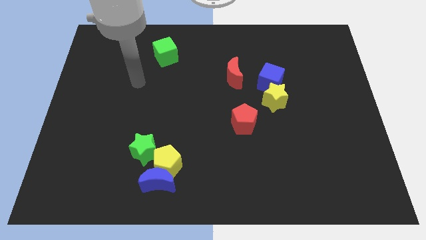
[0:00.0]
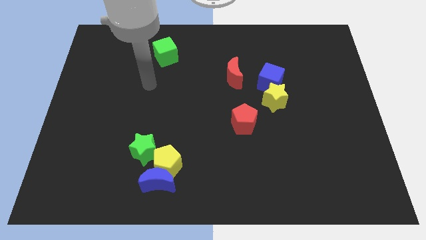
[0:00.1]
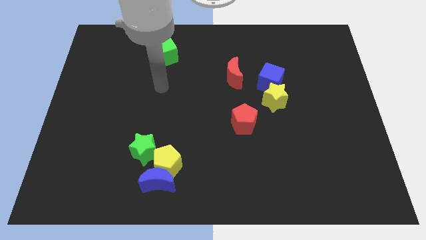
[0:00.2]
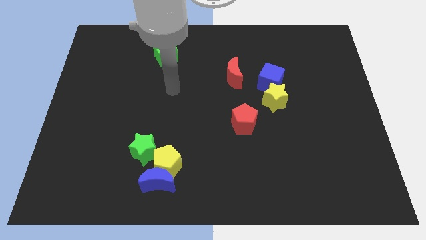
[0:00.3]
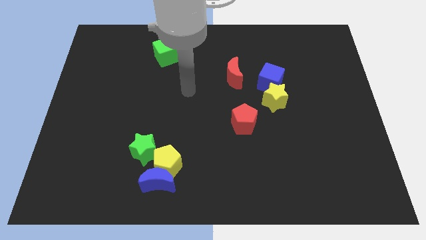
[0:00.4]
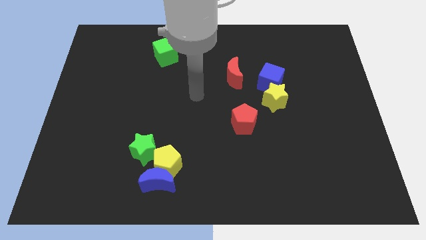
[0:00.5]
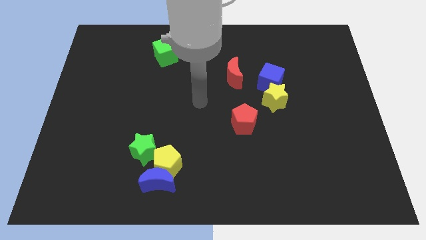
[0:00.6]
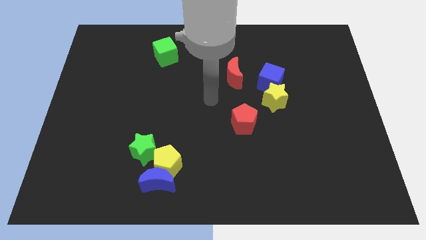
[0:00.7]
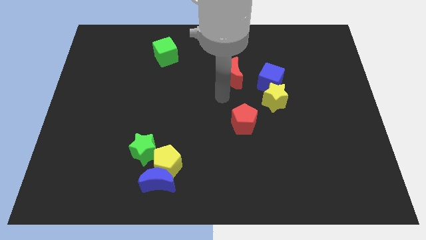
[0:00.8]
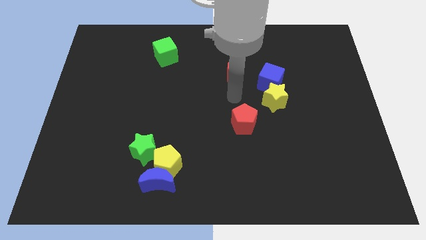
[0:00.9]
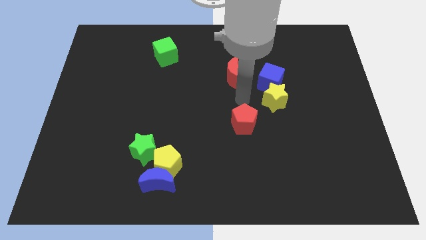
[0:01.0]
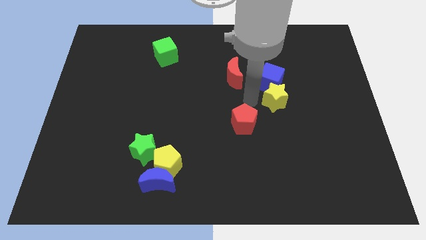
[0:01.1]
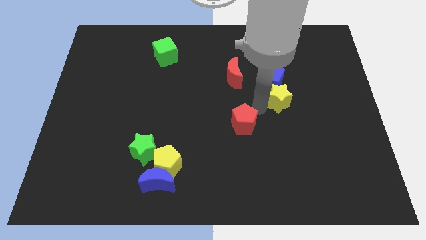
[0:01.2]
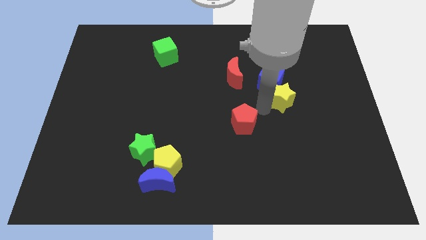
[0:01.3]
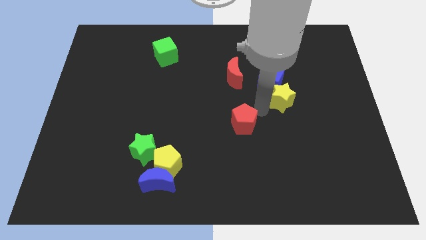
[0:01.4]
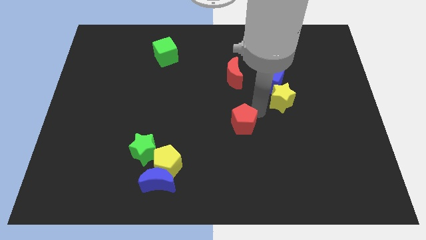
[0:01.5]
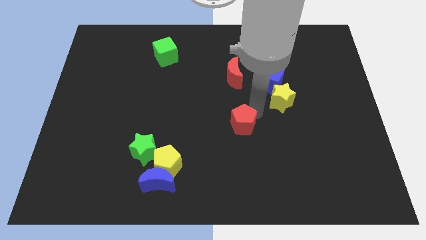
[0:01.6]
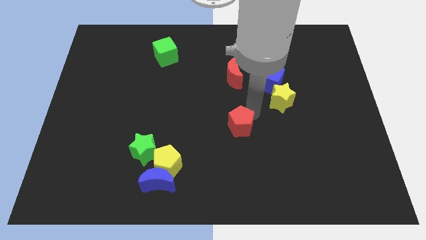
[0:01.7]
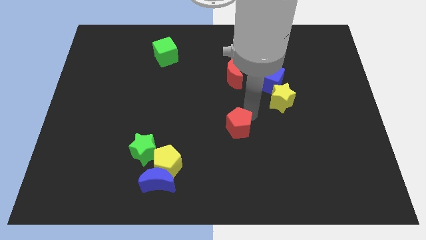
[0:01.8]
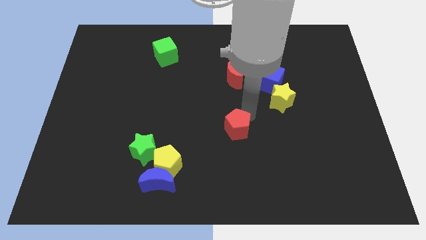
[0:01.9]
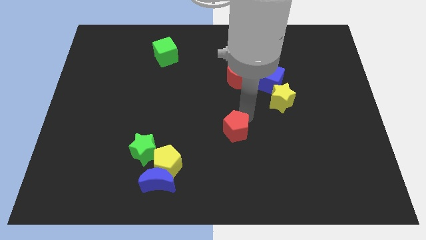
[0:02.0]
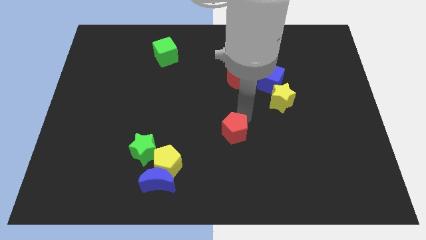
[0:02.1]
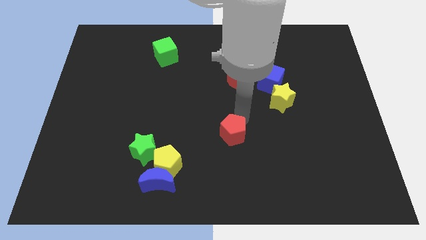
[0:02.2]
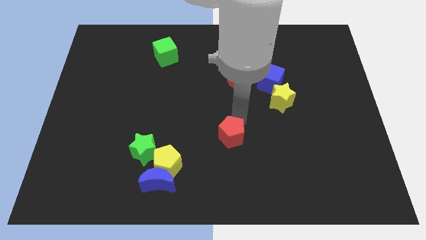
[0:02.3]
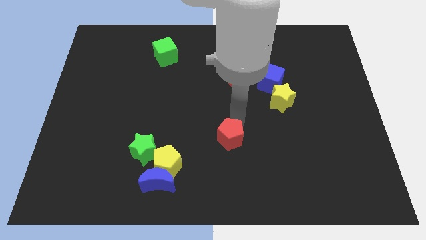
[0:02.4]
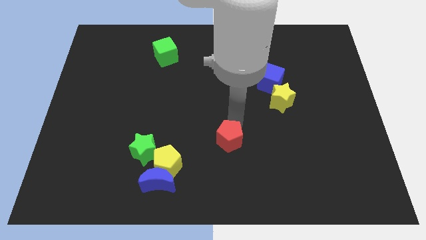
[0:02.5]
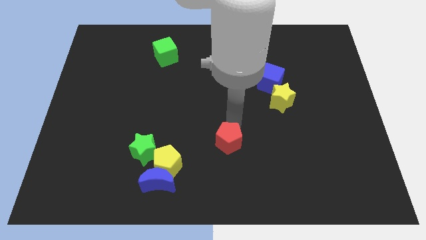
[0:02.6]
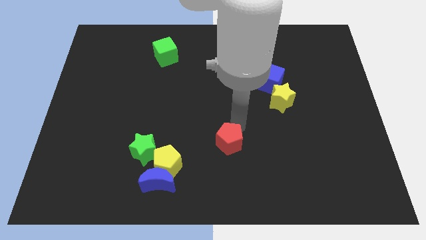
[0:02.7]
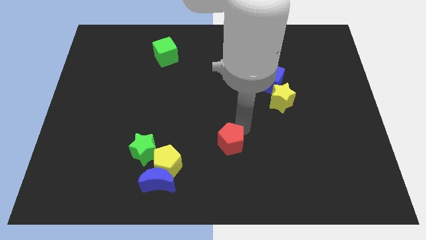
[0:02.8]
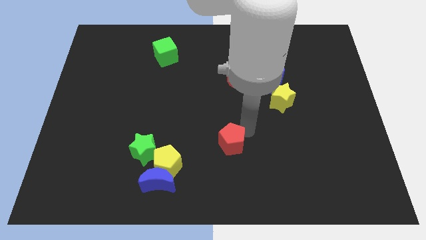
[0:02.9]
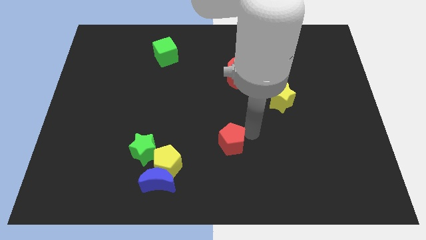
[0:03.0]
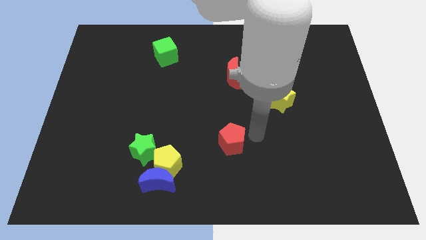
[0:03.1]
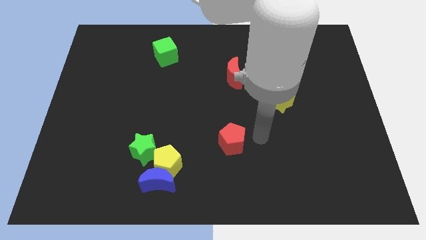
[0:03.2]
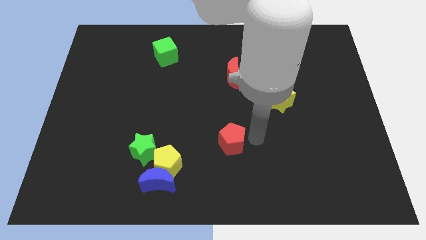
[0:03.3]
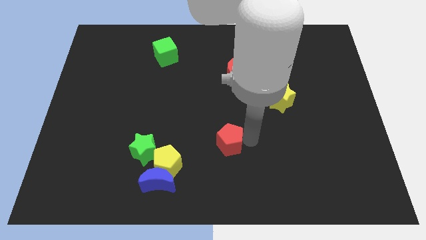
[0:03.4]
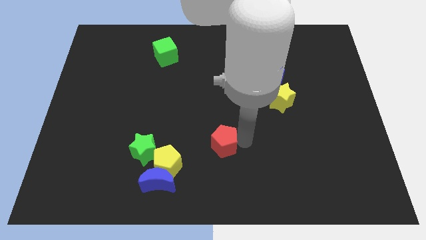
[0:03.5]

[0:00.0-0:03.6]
slightly move the red pentagon diagonally downwards and to the left

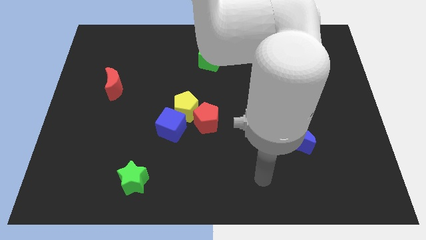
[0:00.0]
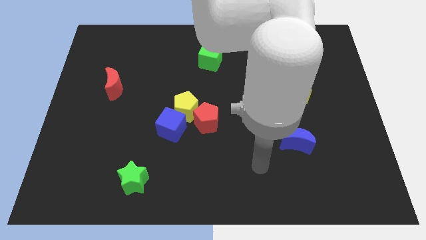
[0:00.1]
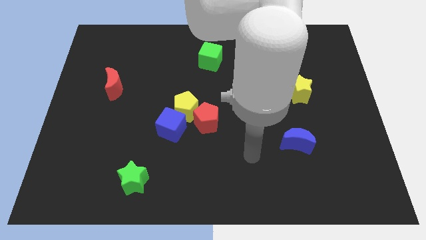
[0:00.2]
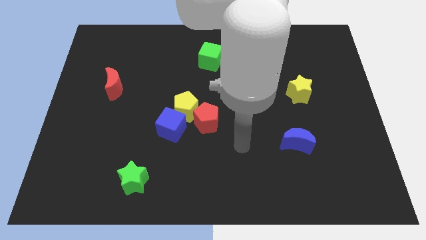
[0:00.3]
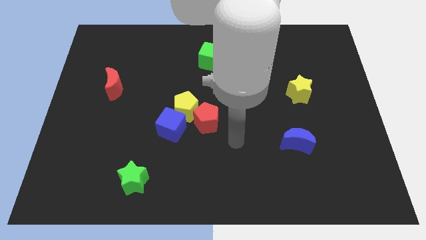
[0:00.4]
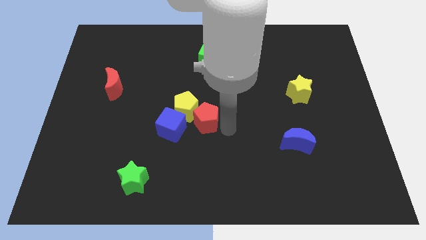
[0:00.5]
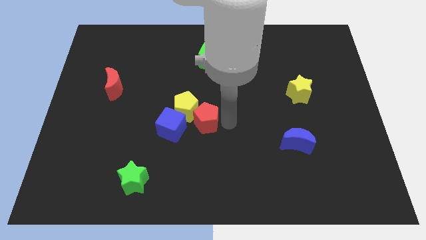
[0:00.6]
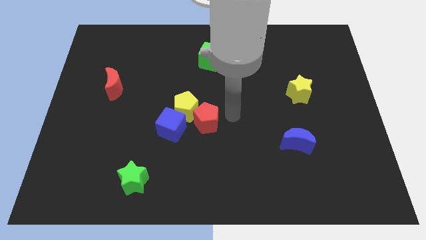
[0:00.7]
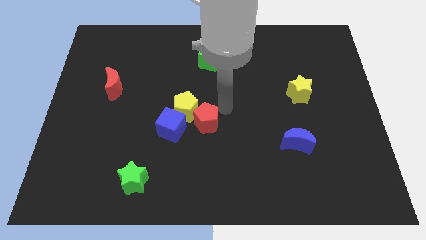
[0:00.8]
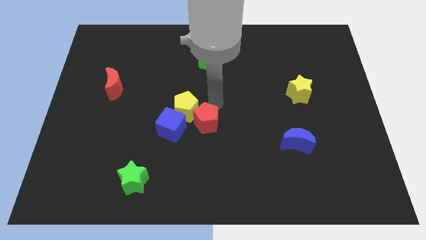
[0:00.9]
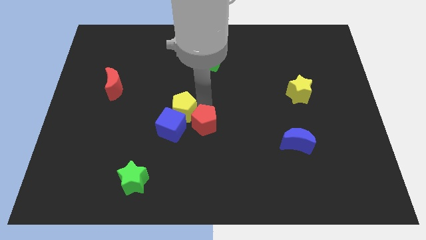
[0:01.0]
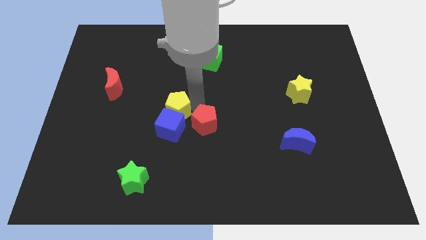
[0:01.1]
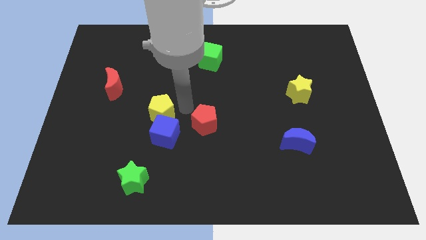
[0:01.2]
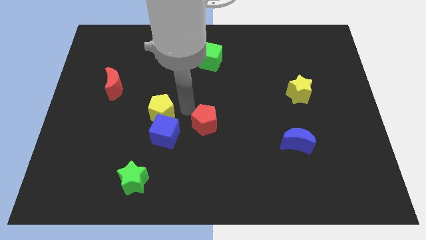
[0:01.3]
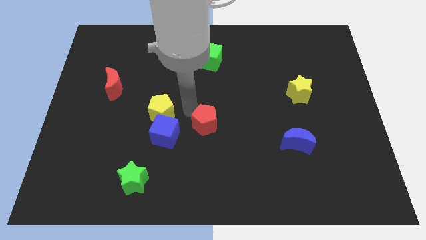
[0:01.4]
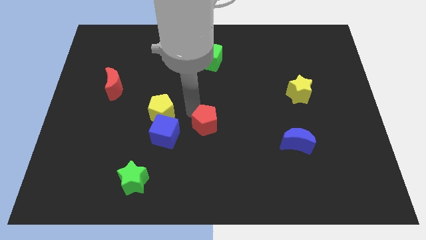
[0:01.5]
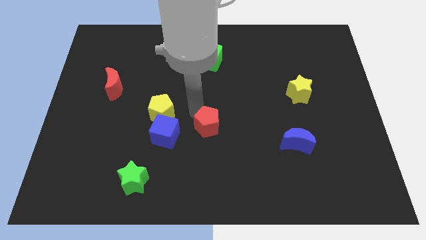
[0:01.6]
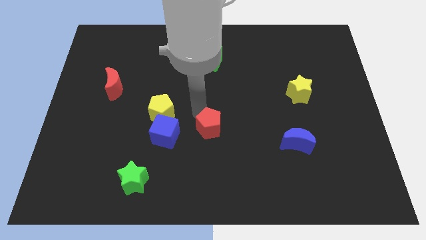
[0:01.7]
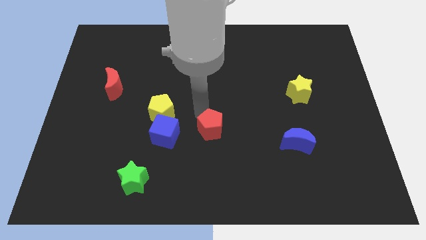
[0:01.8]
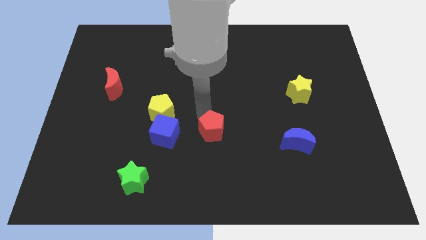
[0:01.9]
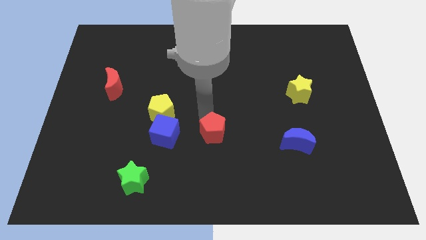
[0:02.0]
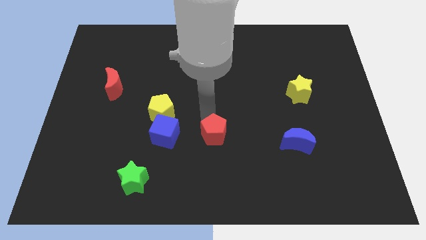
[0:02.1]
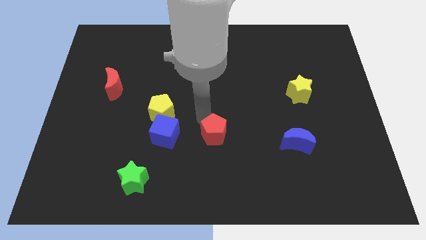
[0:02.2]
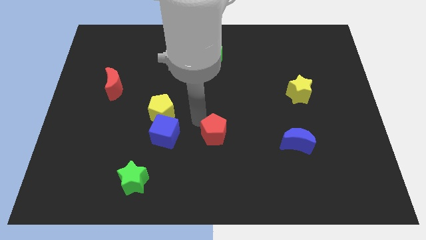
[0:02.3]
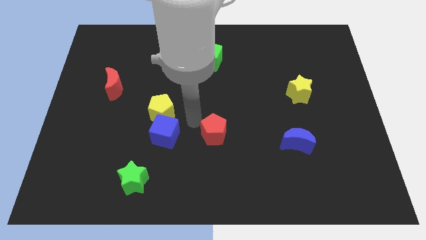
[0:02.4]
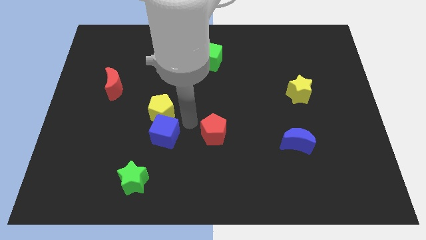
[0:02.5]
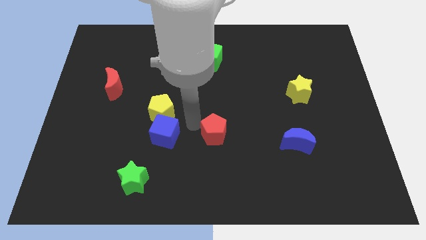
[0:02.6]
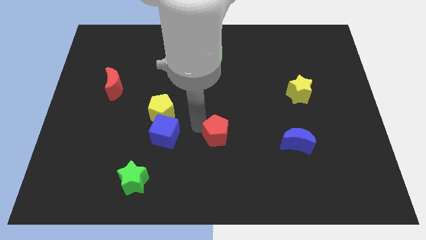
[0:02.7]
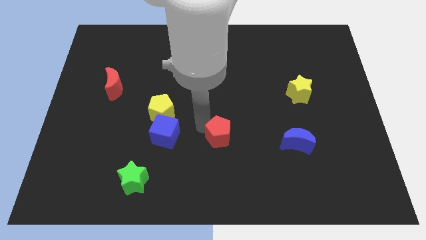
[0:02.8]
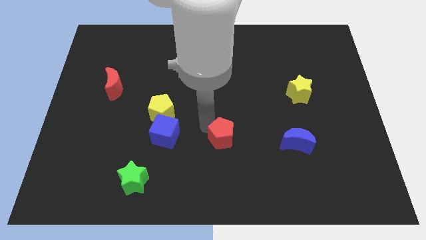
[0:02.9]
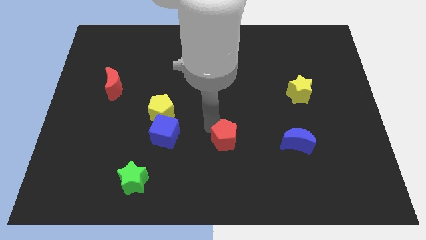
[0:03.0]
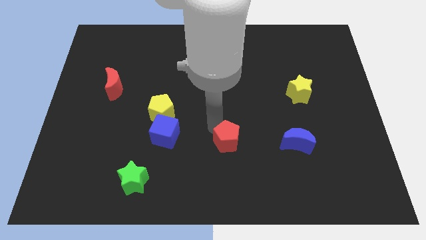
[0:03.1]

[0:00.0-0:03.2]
move the red pentagon a little bit down and to the right diagonally

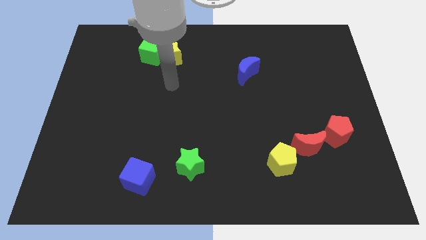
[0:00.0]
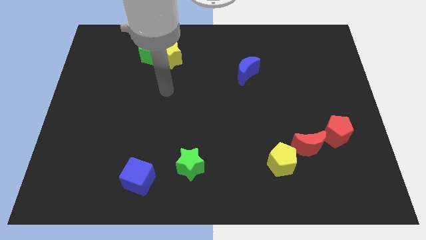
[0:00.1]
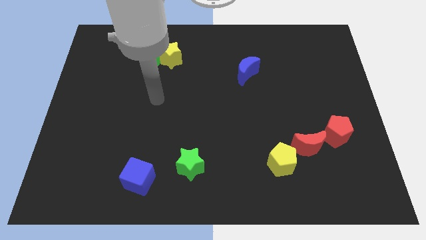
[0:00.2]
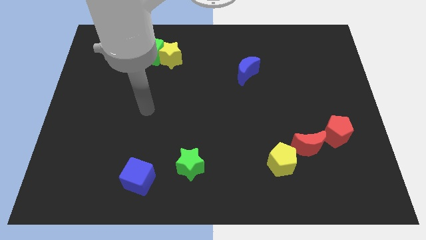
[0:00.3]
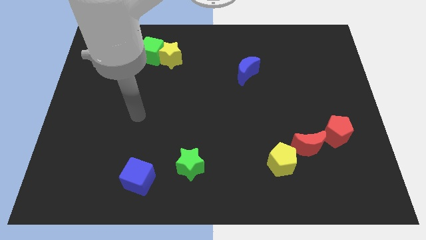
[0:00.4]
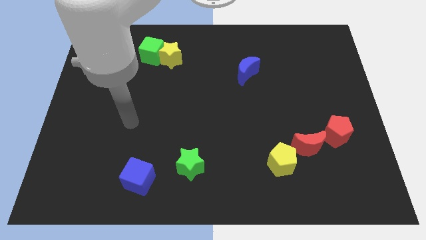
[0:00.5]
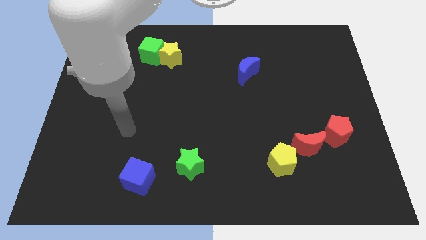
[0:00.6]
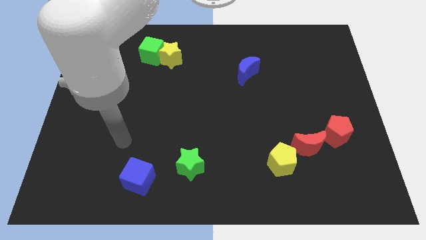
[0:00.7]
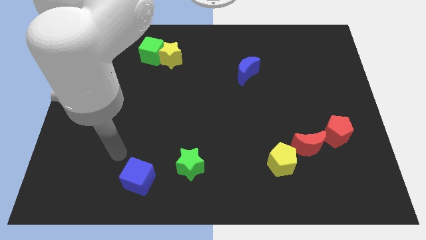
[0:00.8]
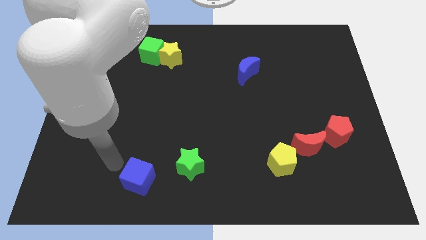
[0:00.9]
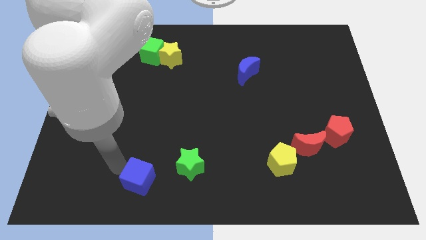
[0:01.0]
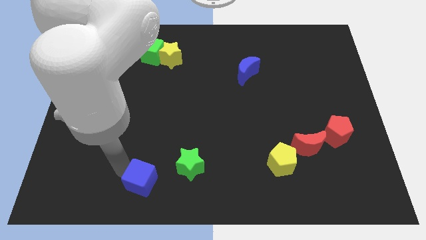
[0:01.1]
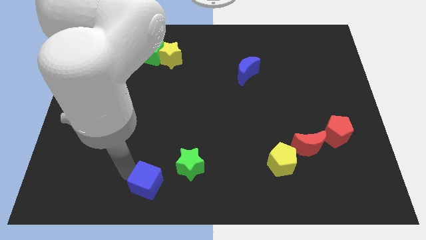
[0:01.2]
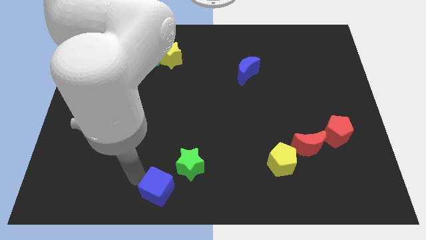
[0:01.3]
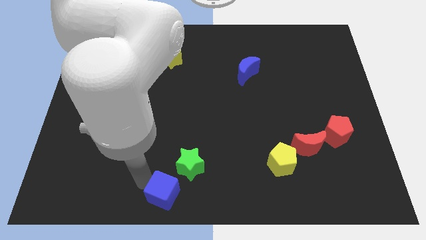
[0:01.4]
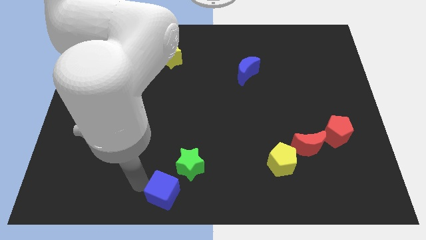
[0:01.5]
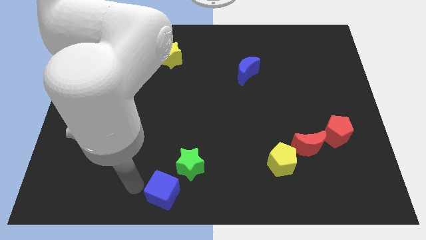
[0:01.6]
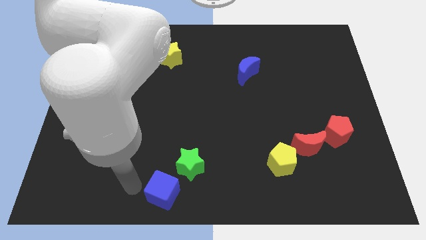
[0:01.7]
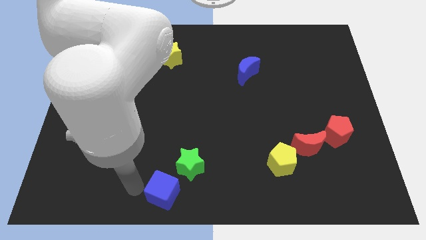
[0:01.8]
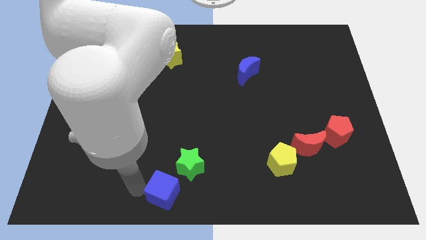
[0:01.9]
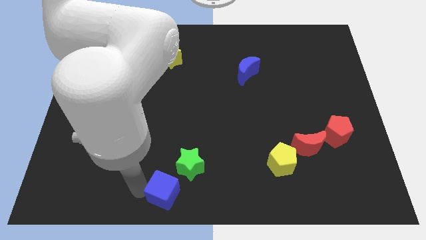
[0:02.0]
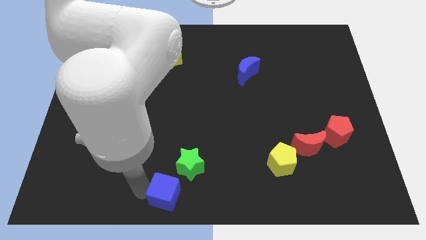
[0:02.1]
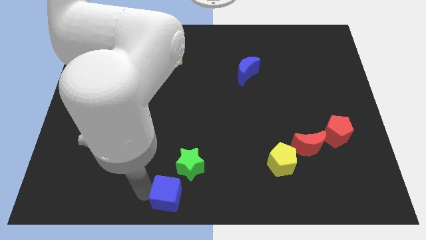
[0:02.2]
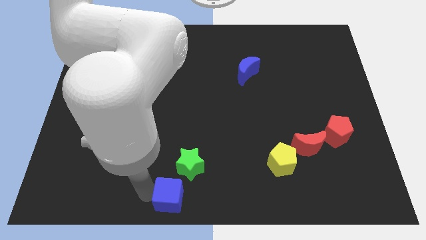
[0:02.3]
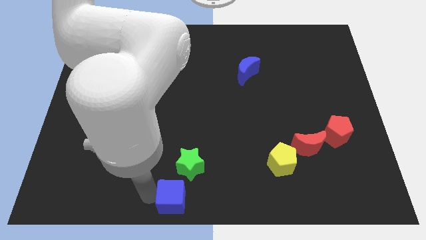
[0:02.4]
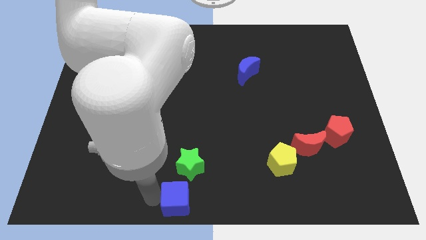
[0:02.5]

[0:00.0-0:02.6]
push the blue cube to the right slightly
